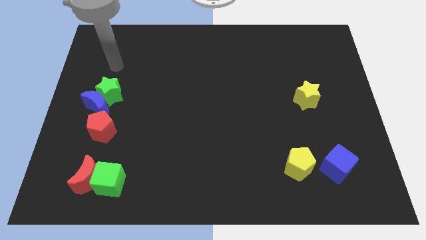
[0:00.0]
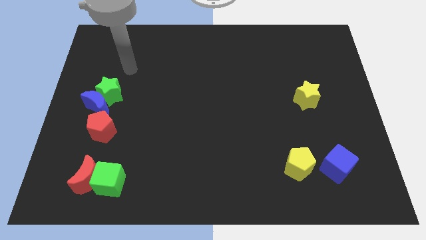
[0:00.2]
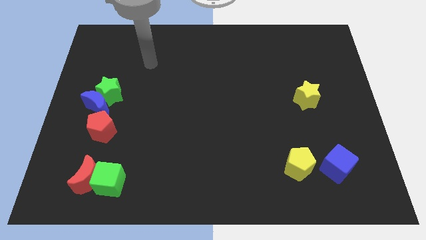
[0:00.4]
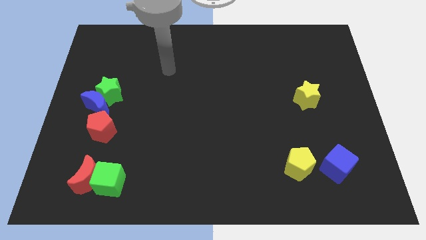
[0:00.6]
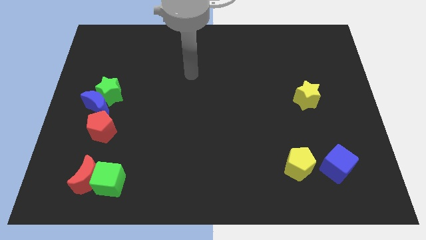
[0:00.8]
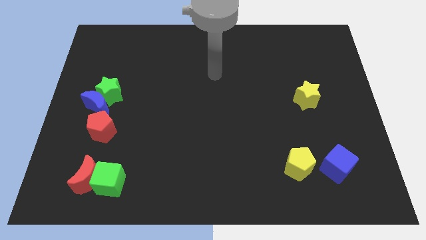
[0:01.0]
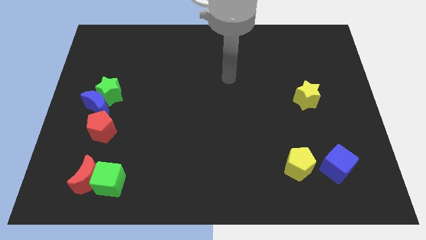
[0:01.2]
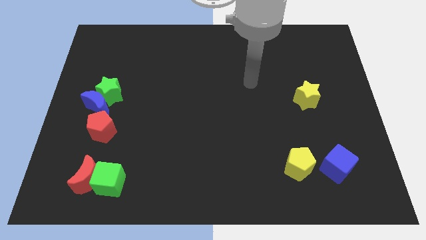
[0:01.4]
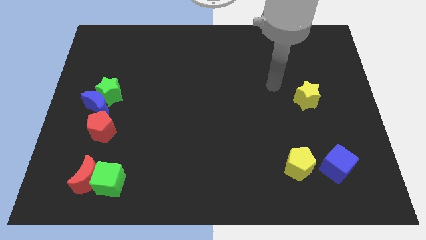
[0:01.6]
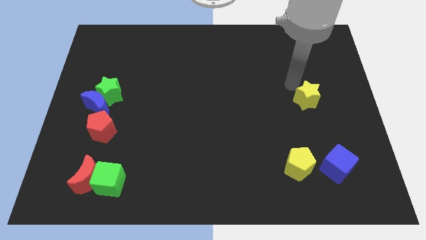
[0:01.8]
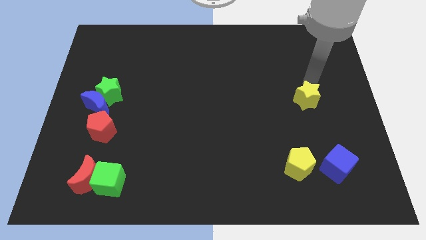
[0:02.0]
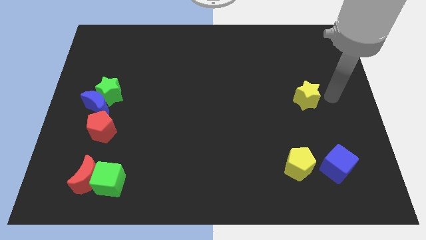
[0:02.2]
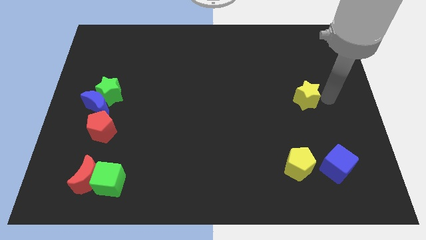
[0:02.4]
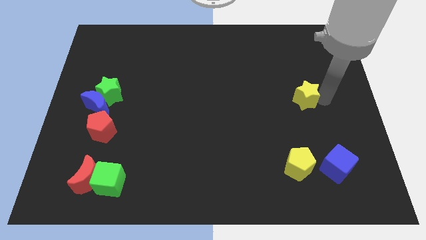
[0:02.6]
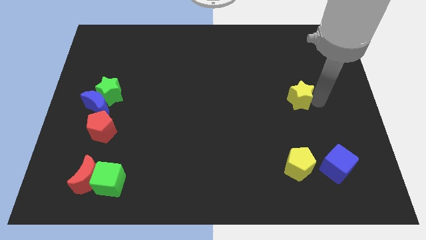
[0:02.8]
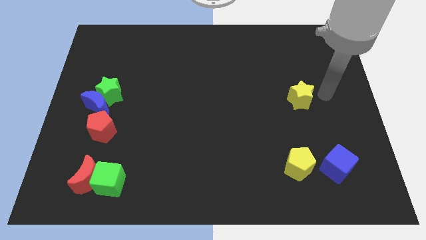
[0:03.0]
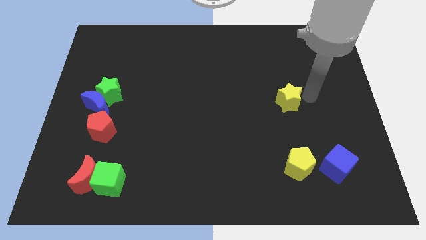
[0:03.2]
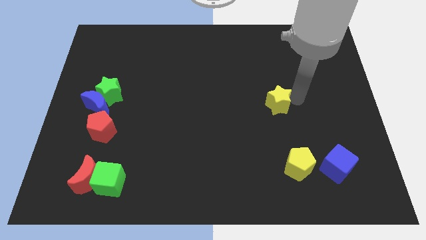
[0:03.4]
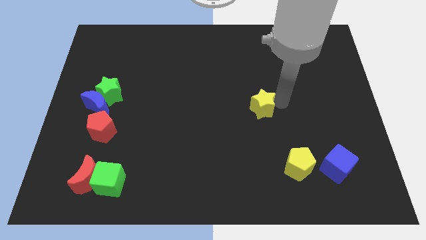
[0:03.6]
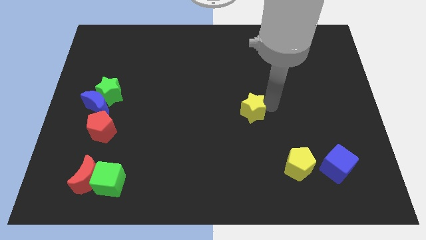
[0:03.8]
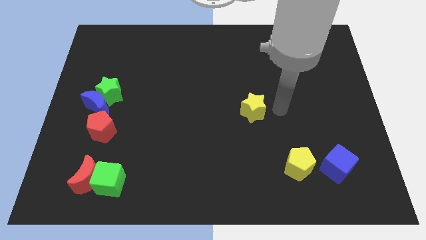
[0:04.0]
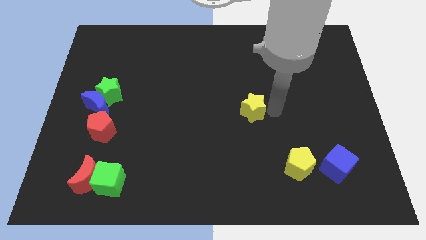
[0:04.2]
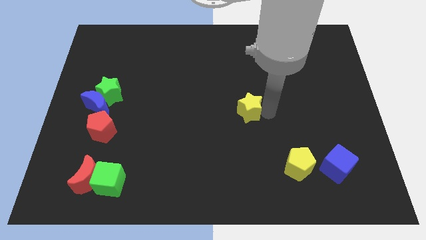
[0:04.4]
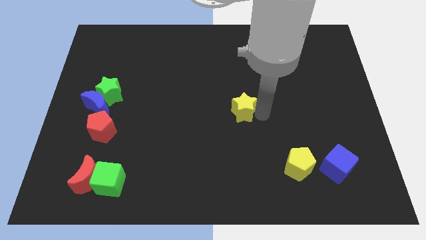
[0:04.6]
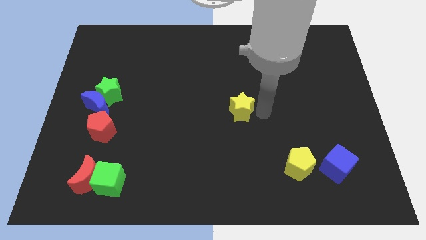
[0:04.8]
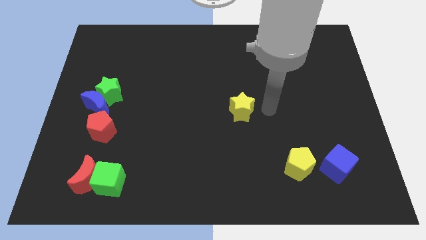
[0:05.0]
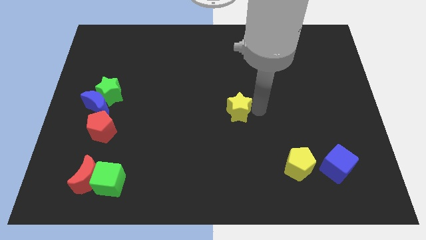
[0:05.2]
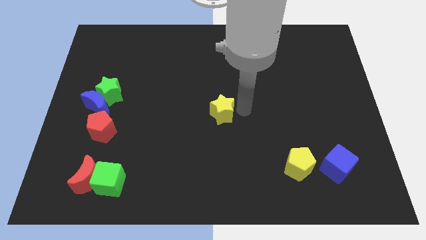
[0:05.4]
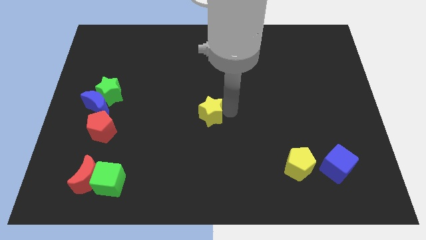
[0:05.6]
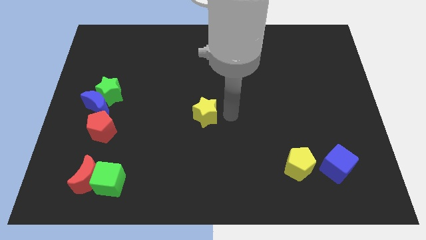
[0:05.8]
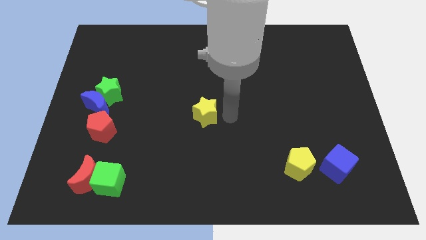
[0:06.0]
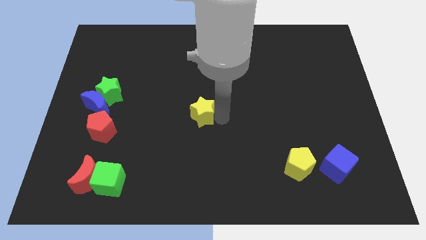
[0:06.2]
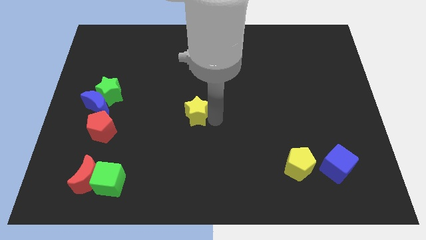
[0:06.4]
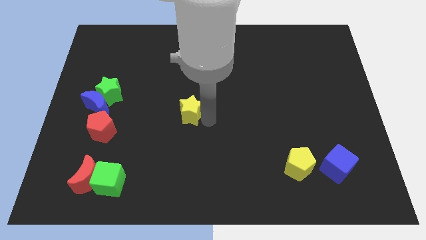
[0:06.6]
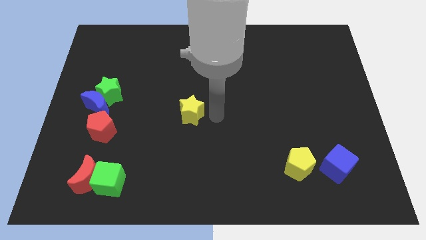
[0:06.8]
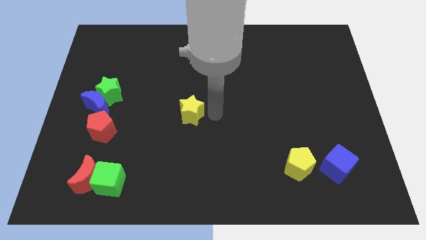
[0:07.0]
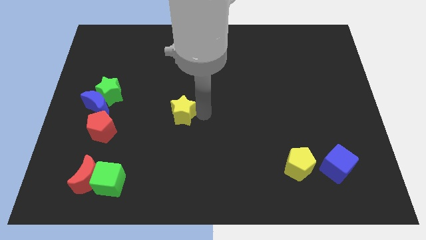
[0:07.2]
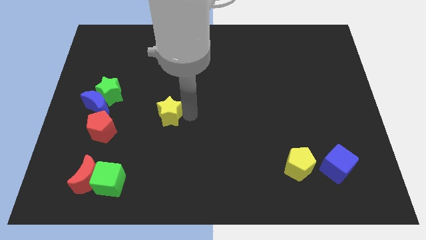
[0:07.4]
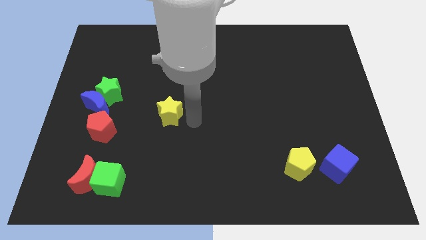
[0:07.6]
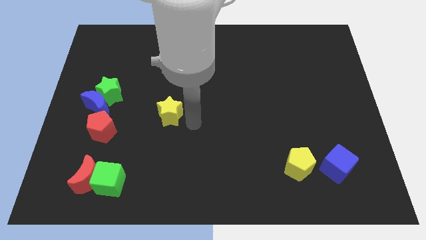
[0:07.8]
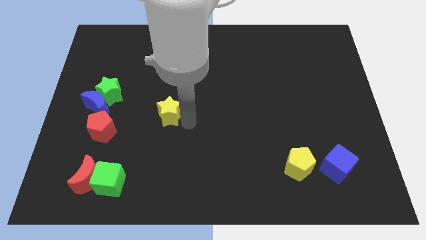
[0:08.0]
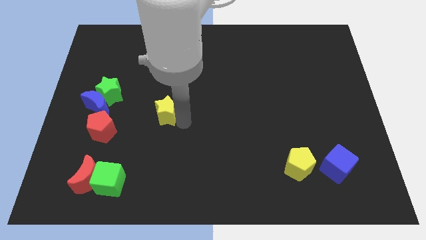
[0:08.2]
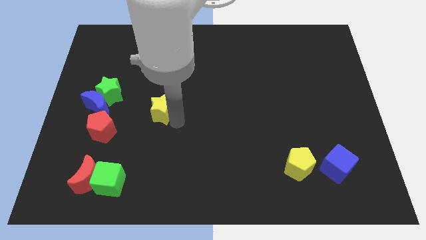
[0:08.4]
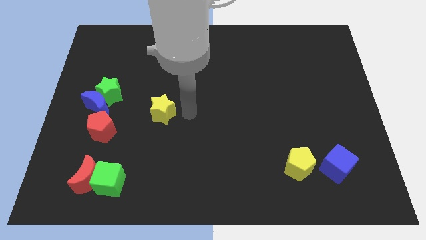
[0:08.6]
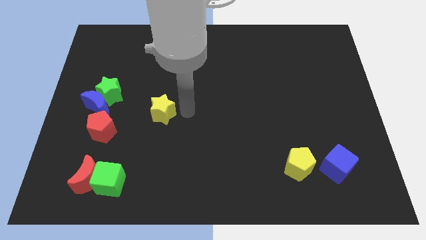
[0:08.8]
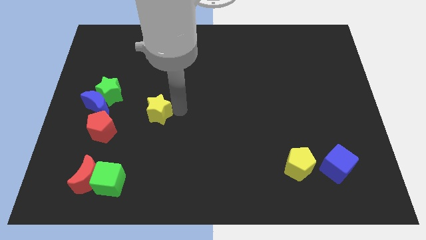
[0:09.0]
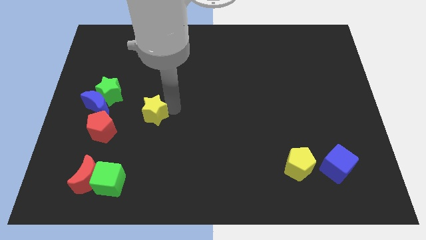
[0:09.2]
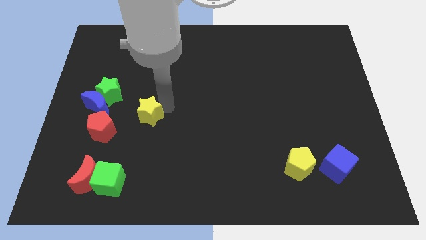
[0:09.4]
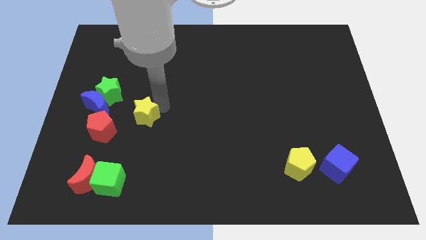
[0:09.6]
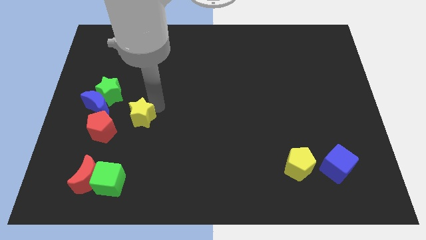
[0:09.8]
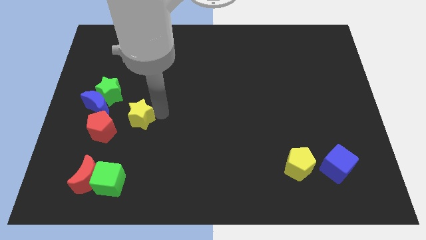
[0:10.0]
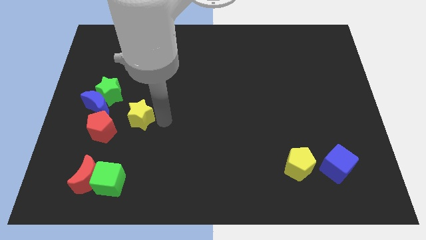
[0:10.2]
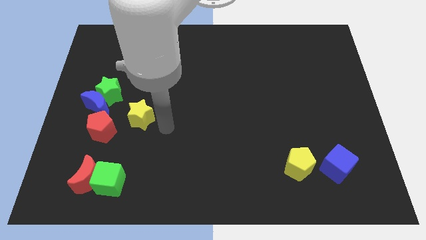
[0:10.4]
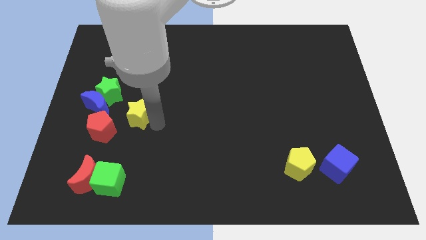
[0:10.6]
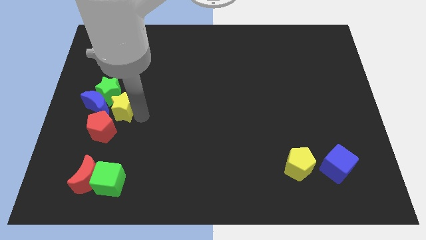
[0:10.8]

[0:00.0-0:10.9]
slide the yellow star to the blue moon

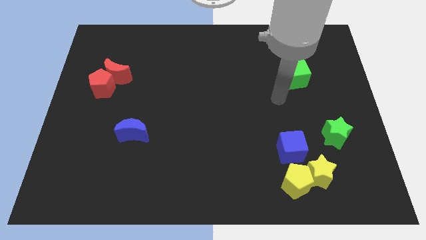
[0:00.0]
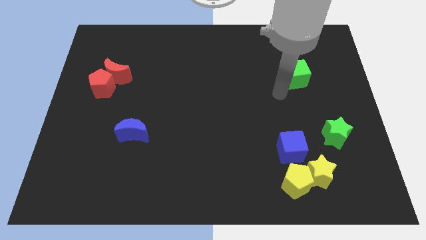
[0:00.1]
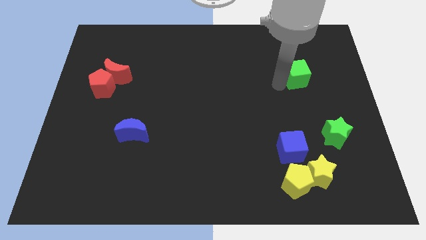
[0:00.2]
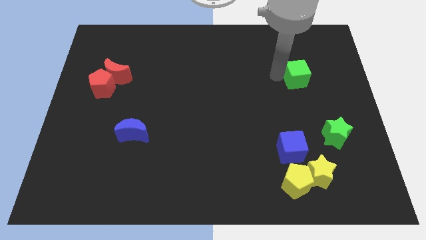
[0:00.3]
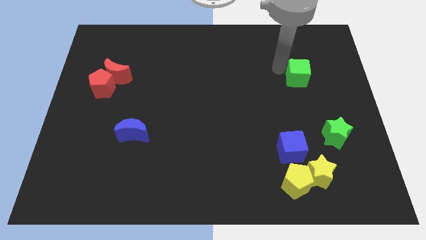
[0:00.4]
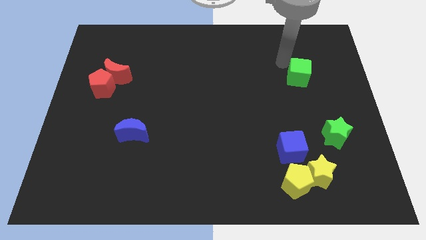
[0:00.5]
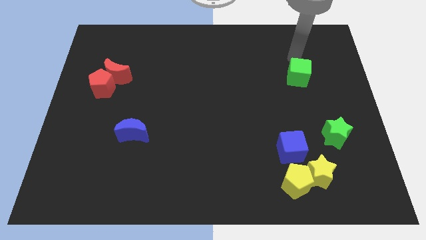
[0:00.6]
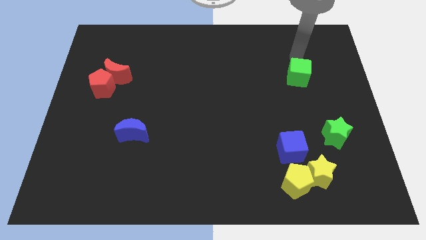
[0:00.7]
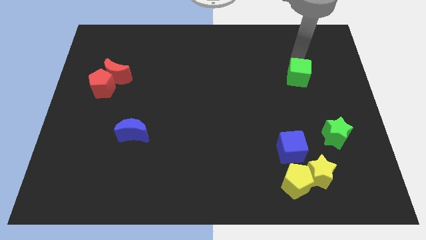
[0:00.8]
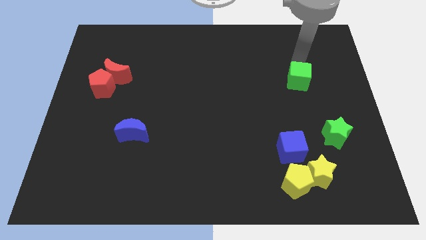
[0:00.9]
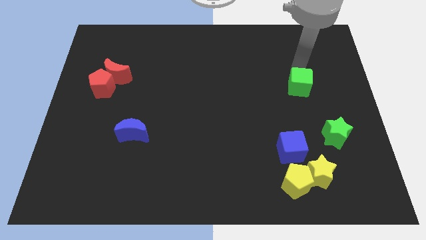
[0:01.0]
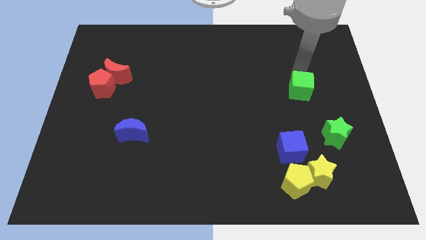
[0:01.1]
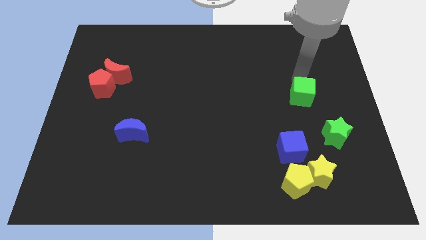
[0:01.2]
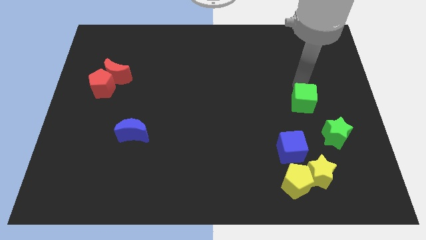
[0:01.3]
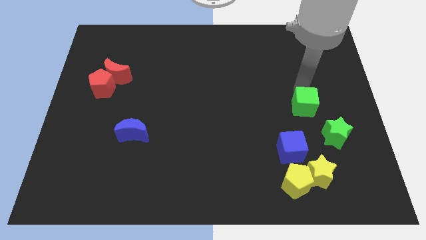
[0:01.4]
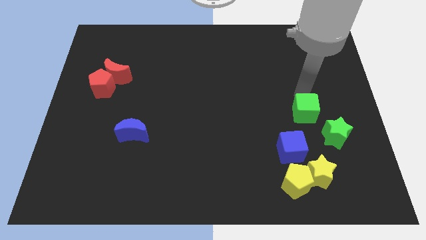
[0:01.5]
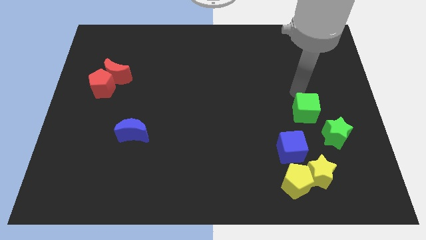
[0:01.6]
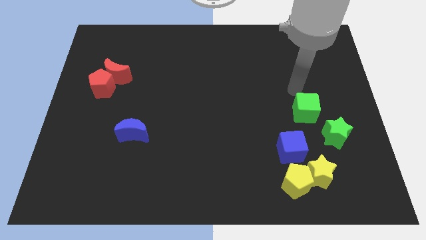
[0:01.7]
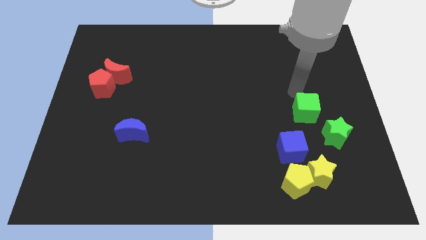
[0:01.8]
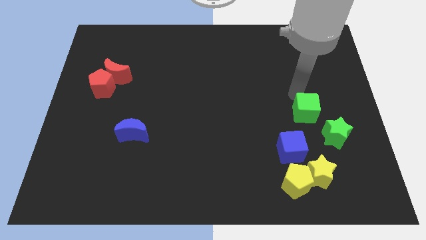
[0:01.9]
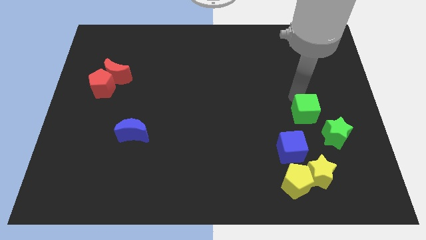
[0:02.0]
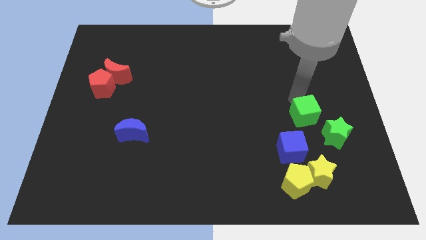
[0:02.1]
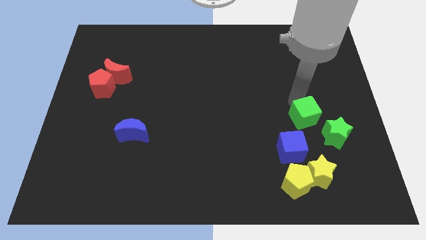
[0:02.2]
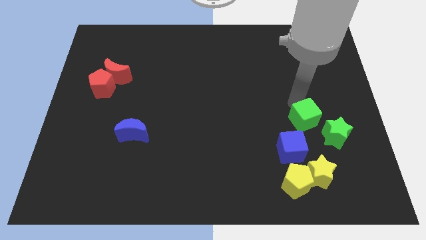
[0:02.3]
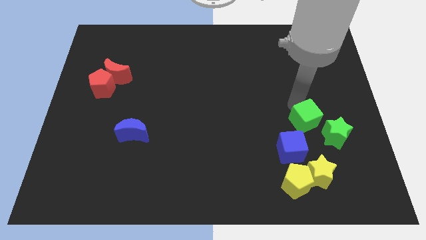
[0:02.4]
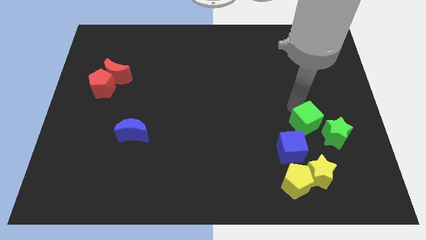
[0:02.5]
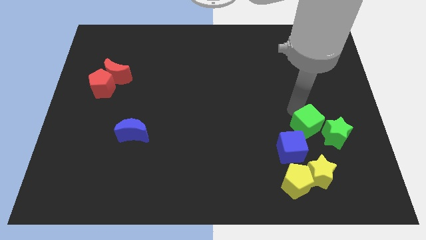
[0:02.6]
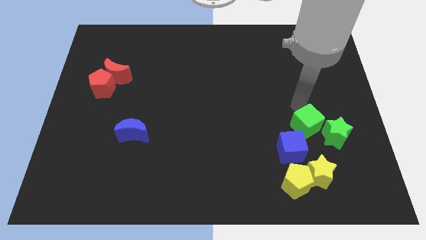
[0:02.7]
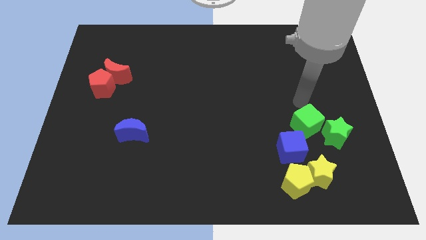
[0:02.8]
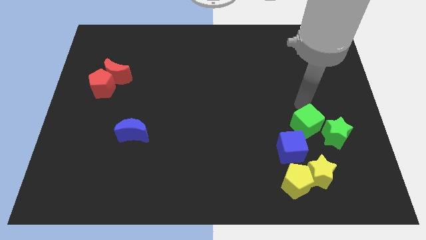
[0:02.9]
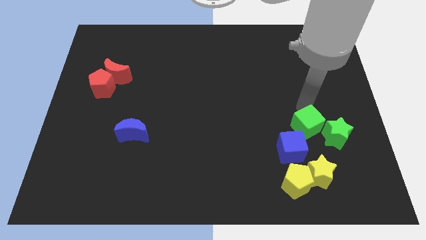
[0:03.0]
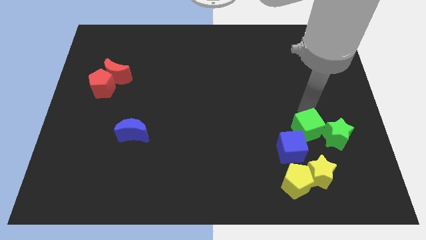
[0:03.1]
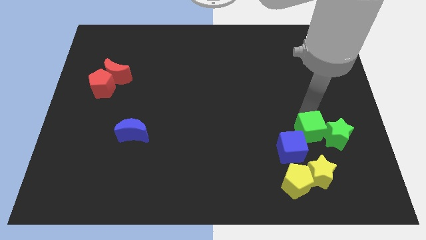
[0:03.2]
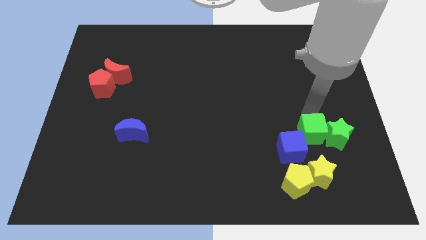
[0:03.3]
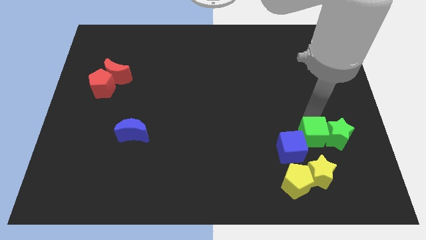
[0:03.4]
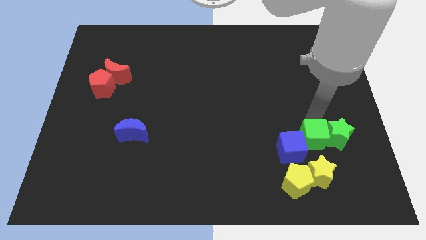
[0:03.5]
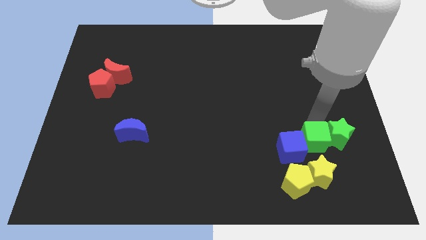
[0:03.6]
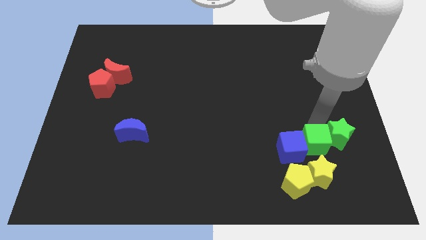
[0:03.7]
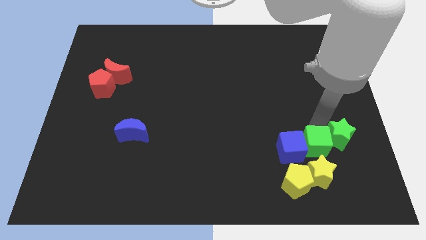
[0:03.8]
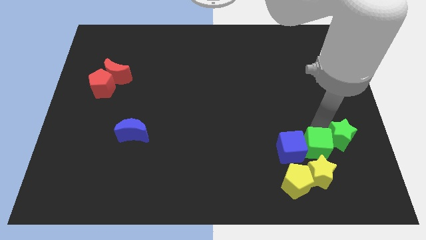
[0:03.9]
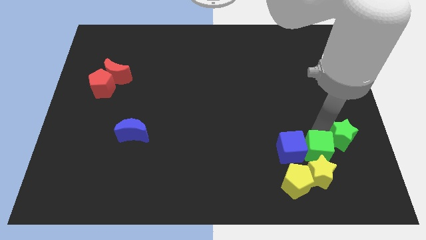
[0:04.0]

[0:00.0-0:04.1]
move the green cube to the yellow star
